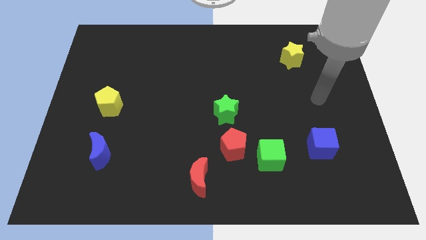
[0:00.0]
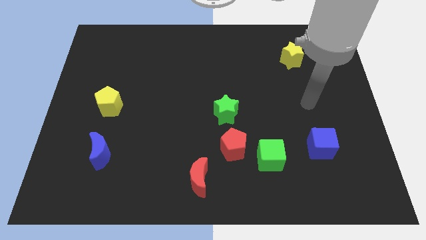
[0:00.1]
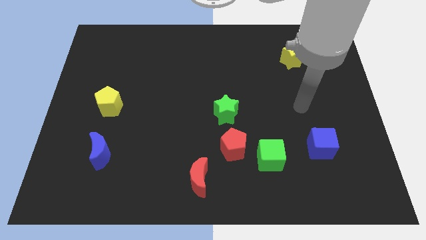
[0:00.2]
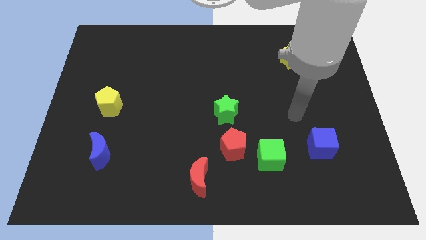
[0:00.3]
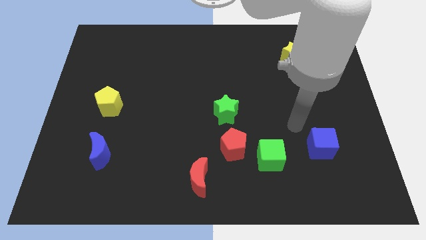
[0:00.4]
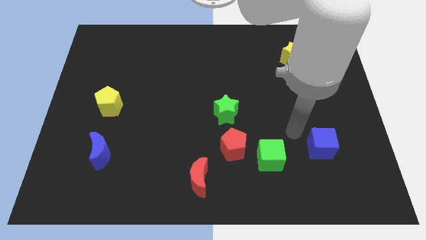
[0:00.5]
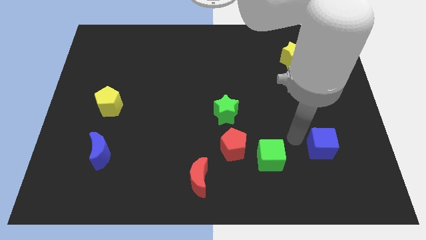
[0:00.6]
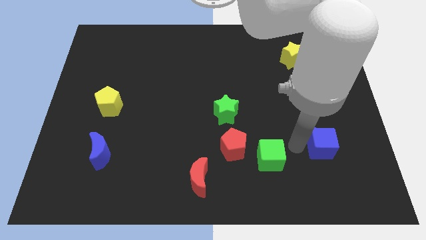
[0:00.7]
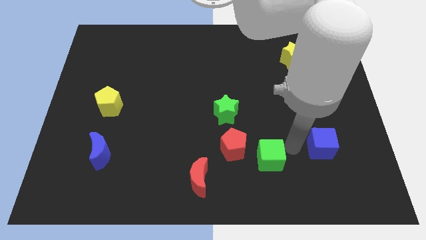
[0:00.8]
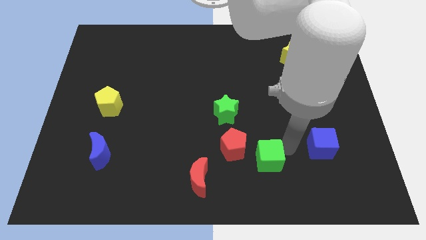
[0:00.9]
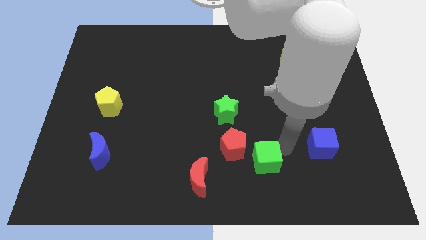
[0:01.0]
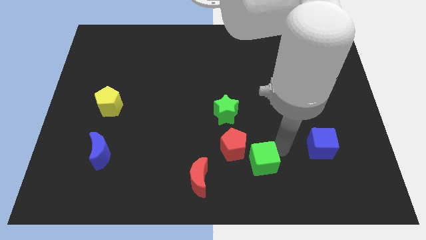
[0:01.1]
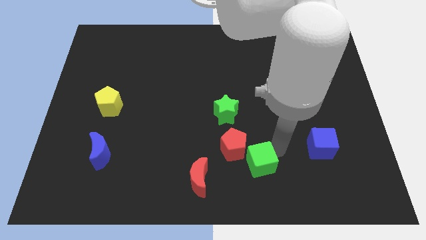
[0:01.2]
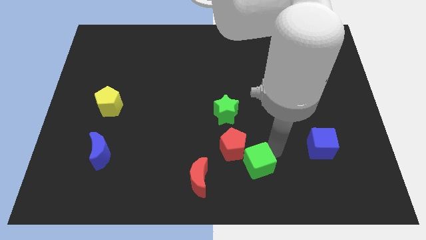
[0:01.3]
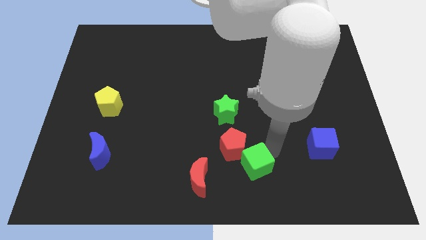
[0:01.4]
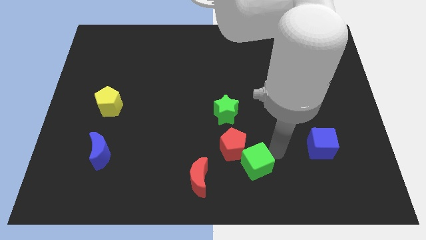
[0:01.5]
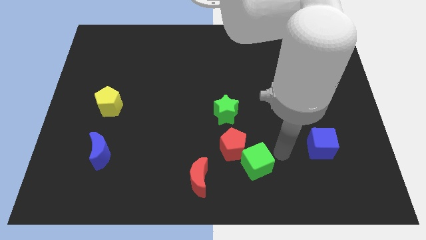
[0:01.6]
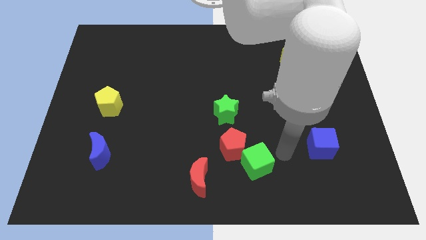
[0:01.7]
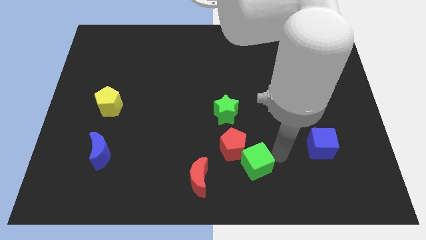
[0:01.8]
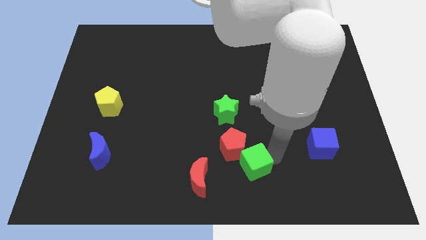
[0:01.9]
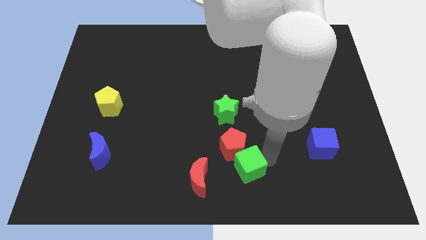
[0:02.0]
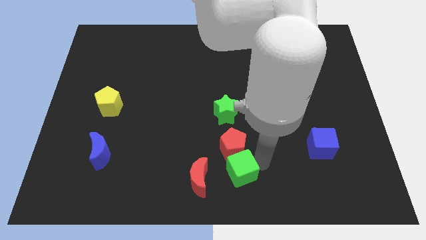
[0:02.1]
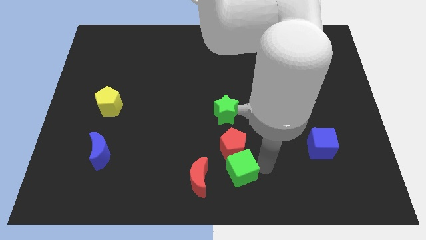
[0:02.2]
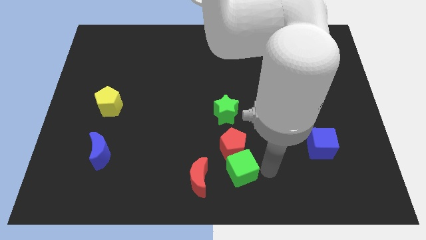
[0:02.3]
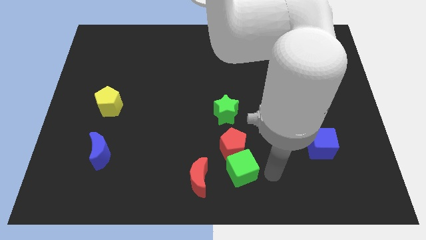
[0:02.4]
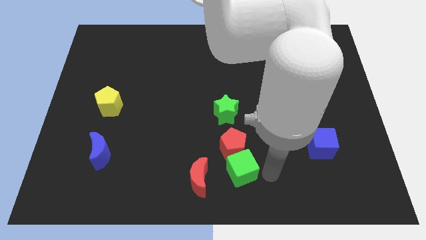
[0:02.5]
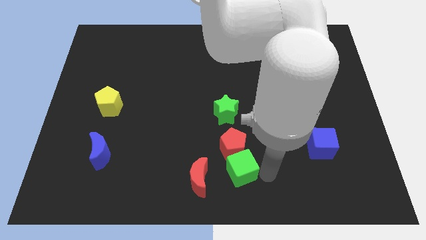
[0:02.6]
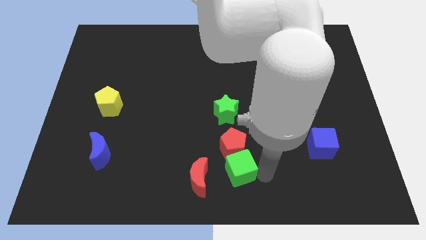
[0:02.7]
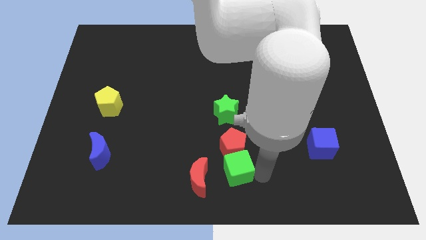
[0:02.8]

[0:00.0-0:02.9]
push the green cube to the left a bit

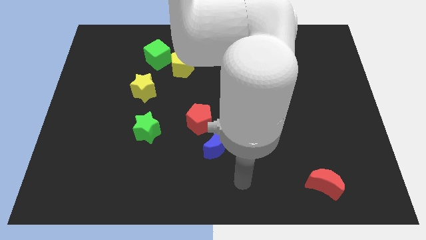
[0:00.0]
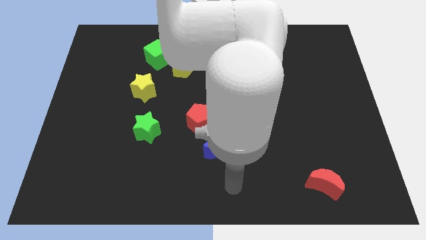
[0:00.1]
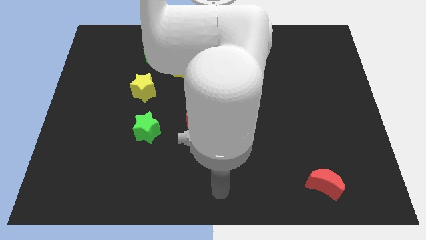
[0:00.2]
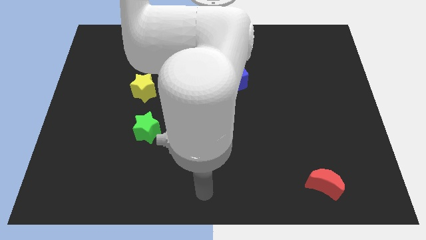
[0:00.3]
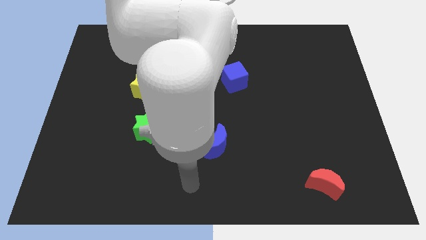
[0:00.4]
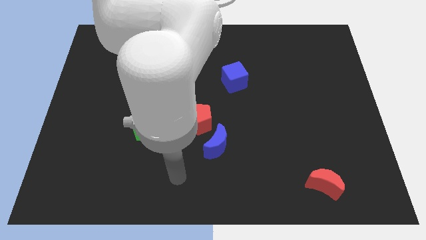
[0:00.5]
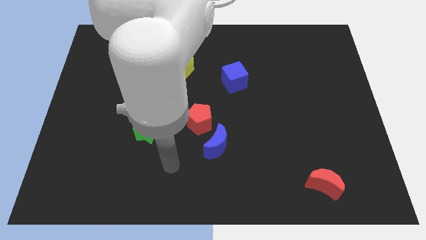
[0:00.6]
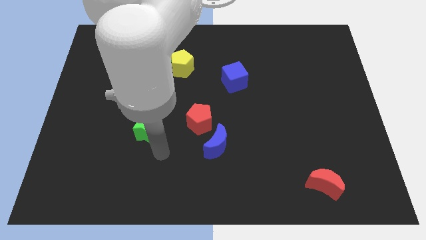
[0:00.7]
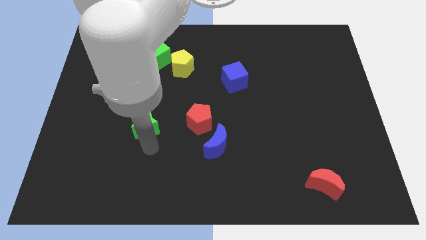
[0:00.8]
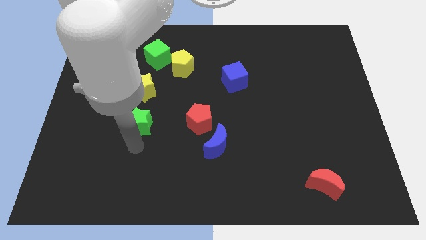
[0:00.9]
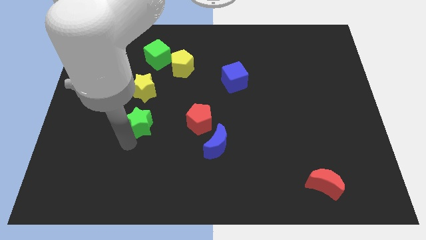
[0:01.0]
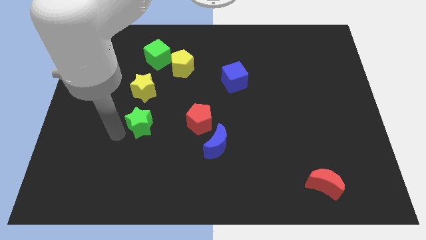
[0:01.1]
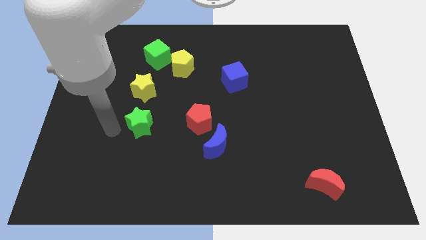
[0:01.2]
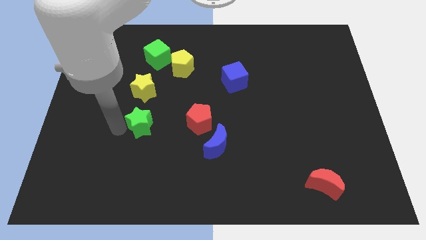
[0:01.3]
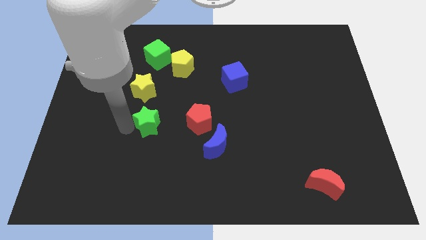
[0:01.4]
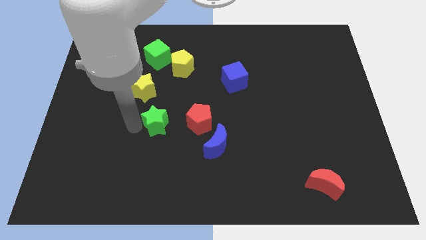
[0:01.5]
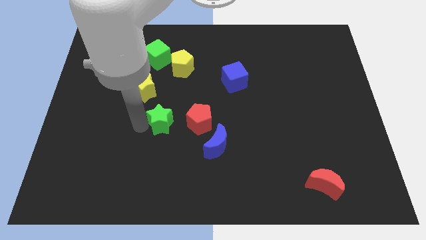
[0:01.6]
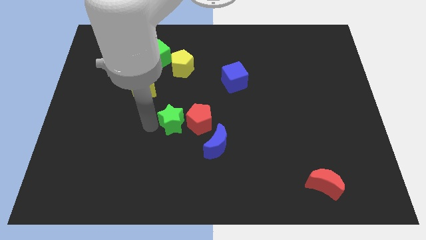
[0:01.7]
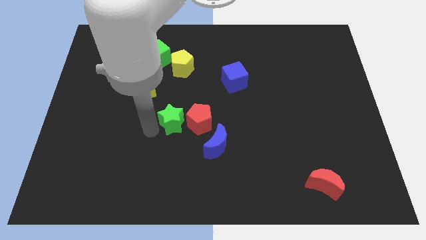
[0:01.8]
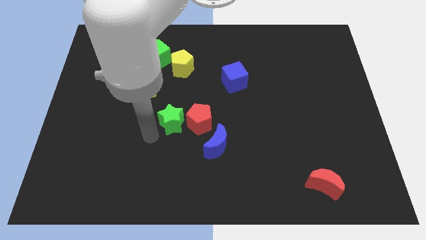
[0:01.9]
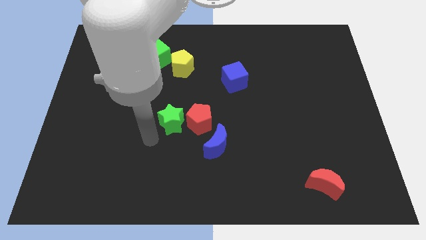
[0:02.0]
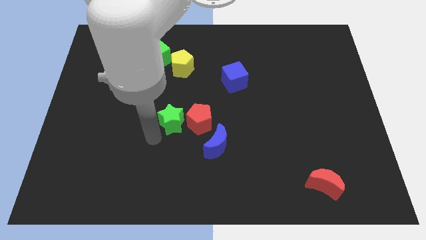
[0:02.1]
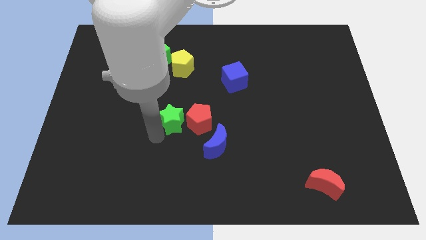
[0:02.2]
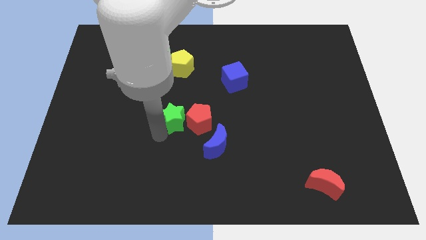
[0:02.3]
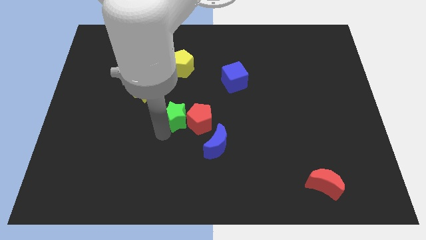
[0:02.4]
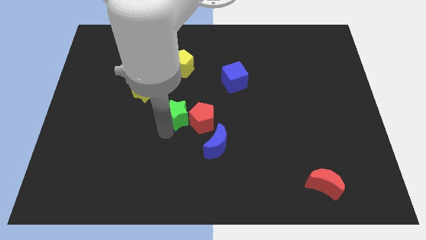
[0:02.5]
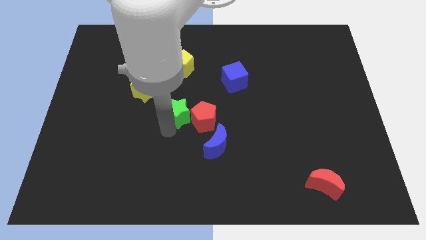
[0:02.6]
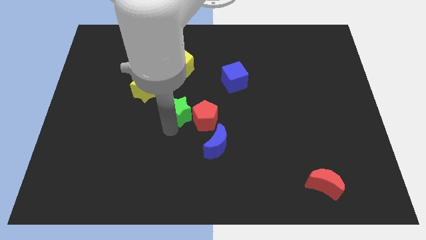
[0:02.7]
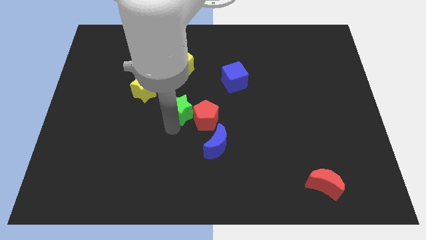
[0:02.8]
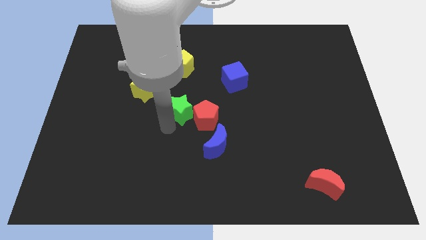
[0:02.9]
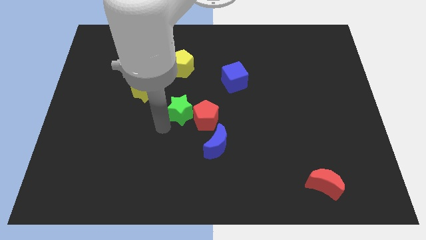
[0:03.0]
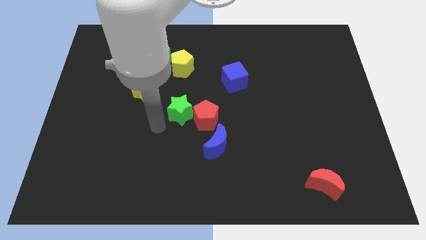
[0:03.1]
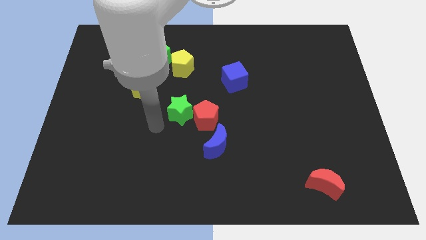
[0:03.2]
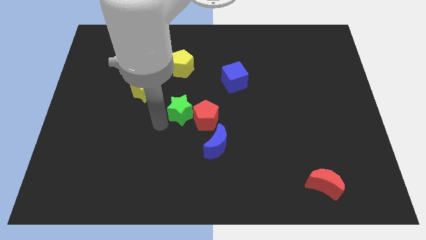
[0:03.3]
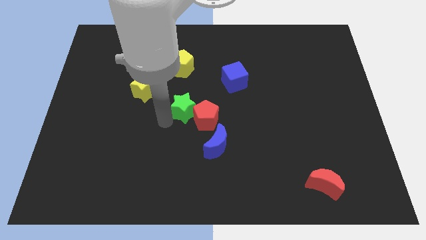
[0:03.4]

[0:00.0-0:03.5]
slide the green star slightly right

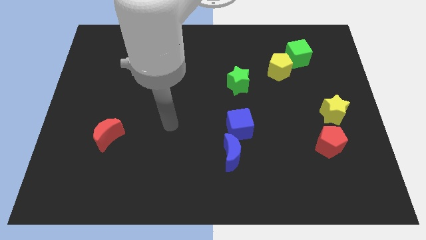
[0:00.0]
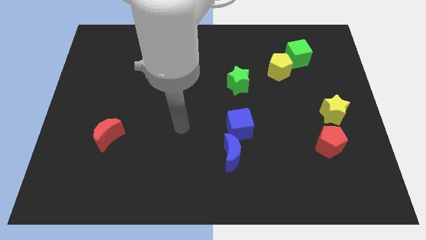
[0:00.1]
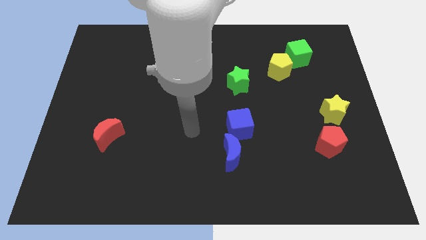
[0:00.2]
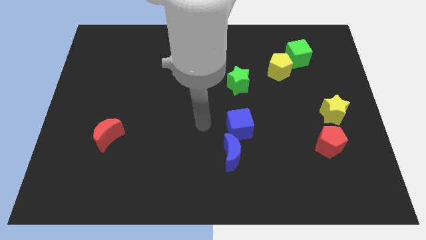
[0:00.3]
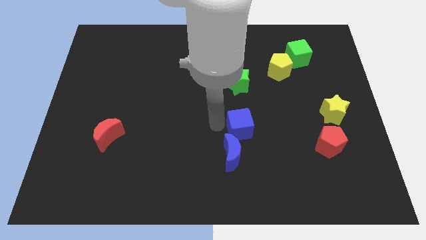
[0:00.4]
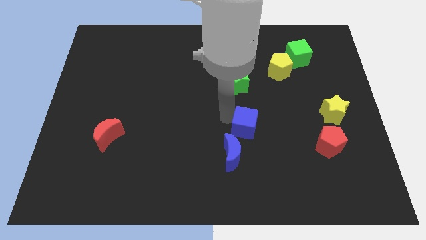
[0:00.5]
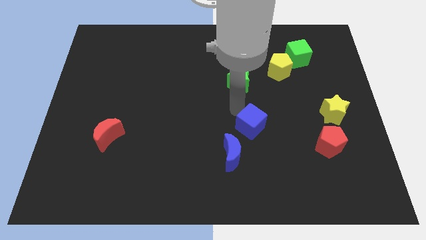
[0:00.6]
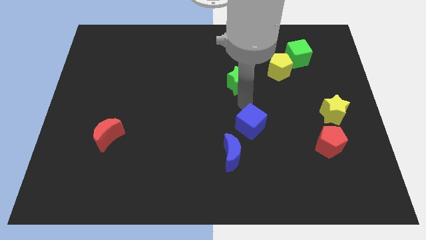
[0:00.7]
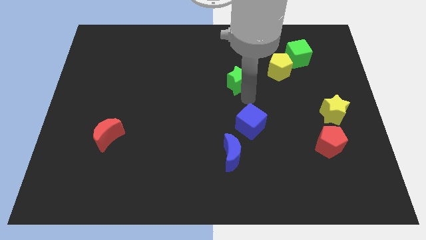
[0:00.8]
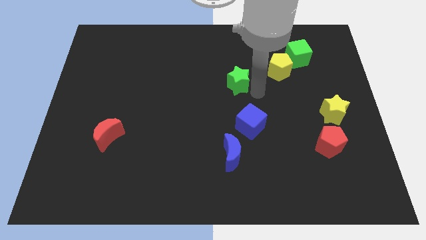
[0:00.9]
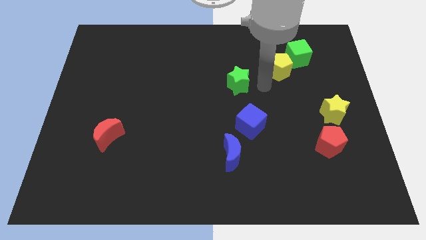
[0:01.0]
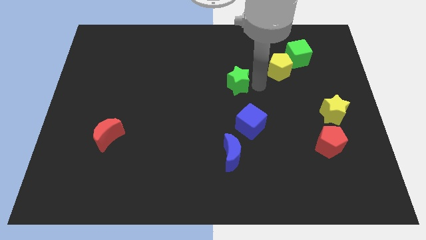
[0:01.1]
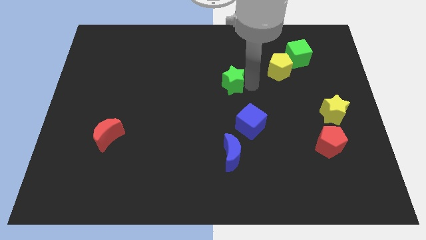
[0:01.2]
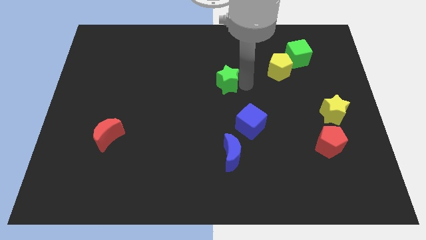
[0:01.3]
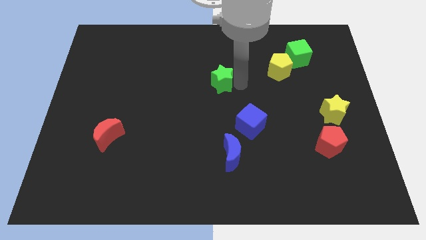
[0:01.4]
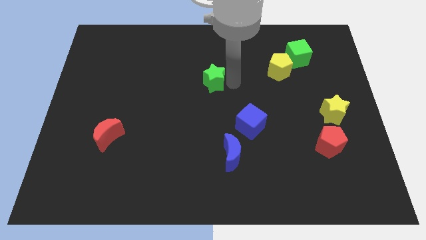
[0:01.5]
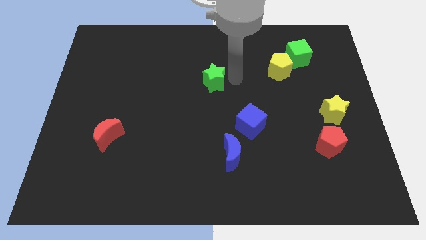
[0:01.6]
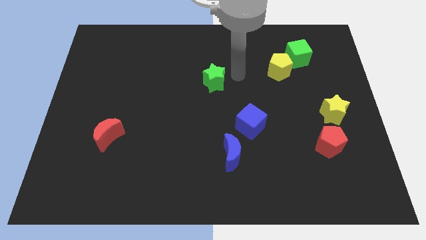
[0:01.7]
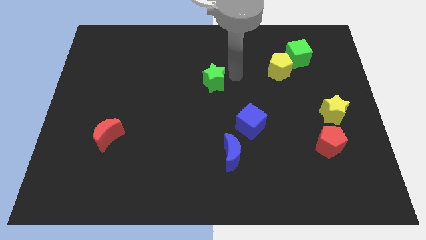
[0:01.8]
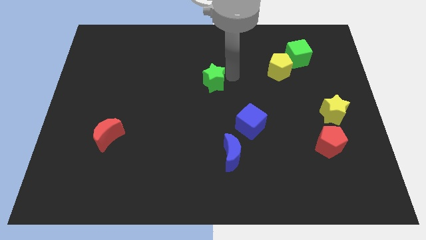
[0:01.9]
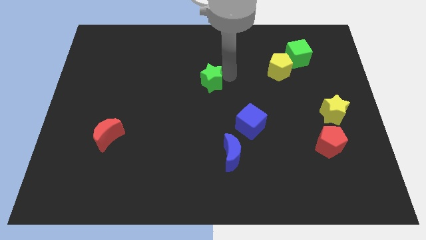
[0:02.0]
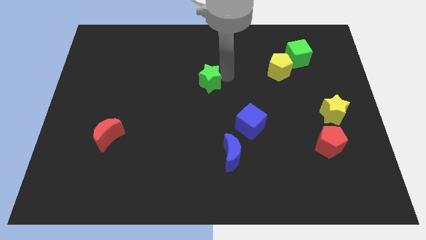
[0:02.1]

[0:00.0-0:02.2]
move the green star a little bit left
